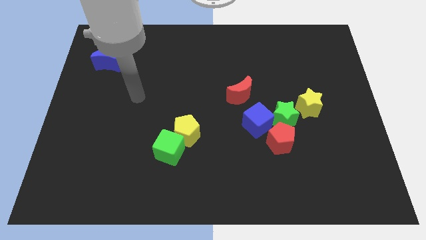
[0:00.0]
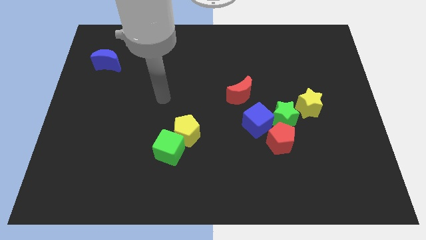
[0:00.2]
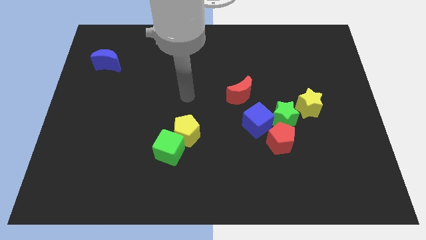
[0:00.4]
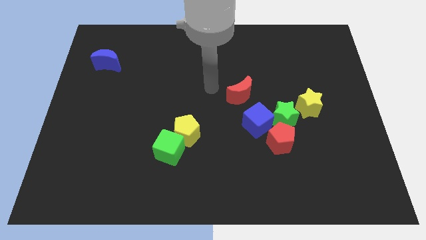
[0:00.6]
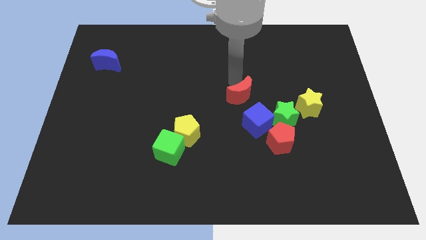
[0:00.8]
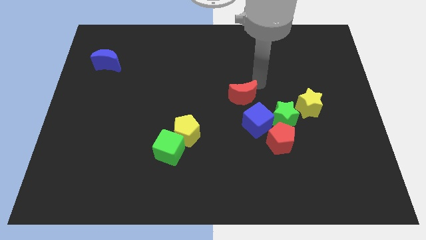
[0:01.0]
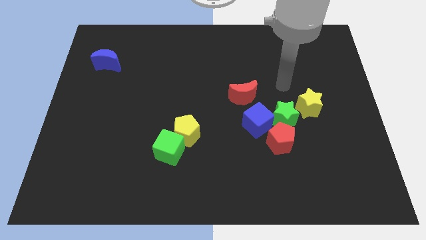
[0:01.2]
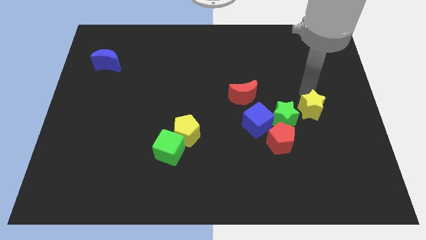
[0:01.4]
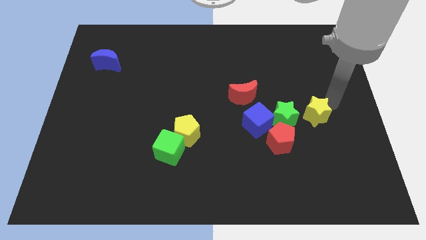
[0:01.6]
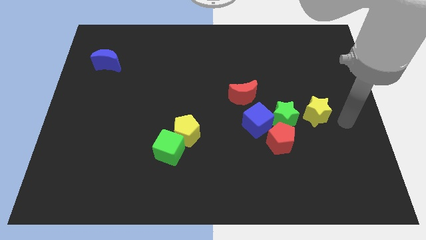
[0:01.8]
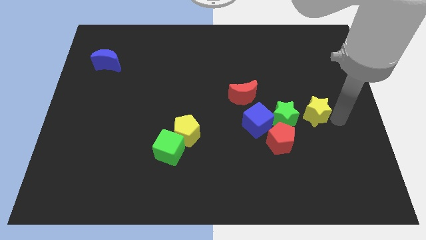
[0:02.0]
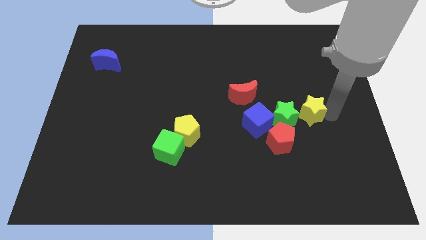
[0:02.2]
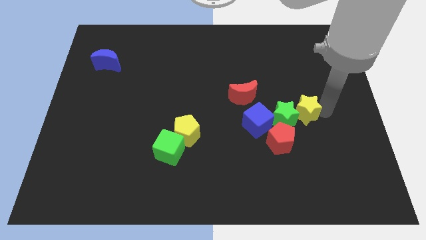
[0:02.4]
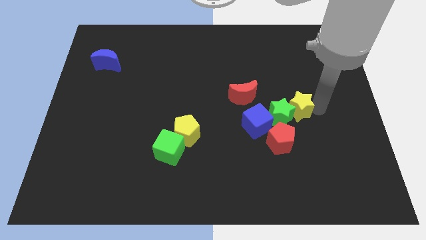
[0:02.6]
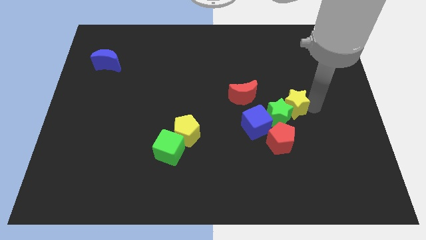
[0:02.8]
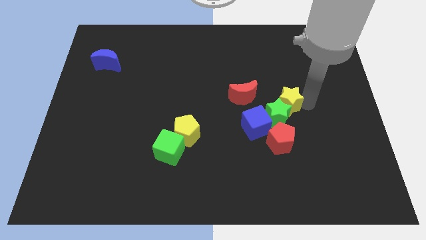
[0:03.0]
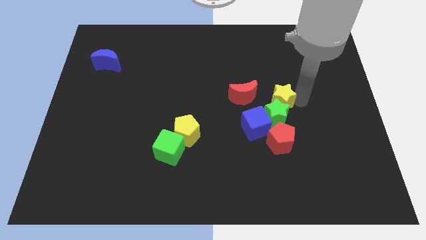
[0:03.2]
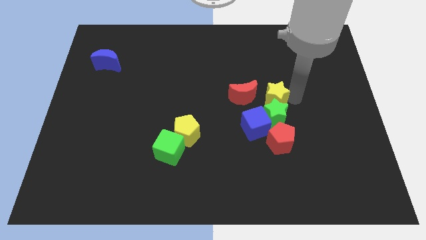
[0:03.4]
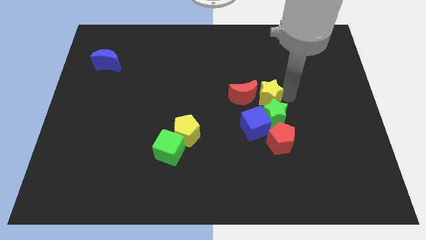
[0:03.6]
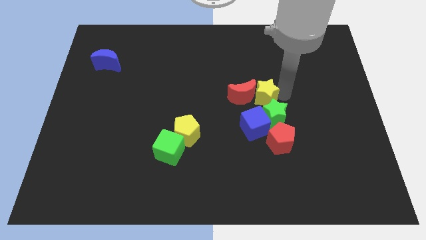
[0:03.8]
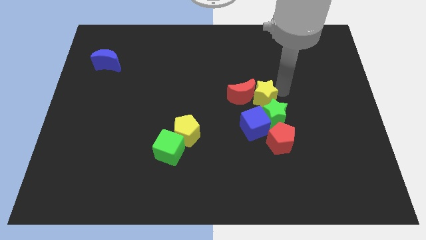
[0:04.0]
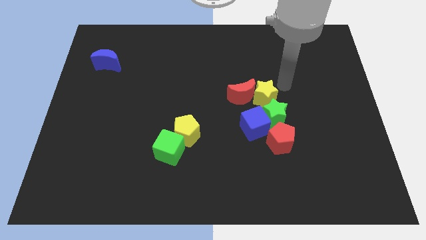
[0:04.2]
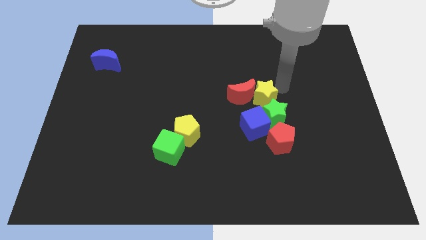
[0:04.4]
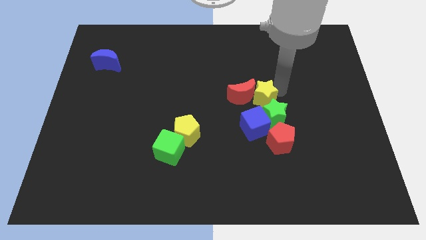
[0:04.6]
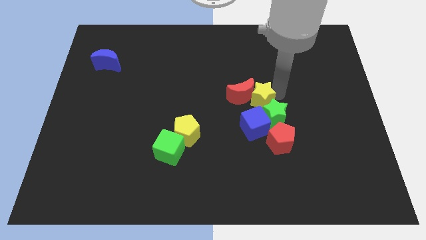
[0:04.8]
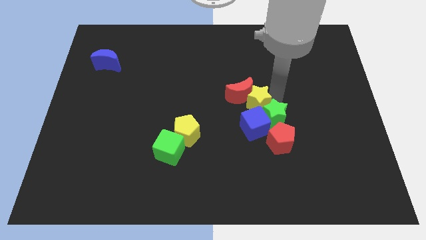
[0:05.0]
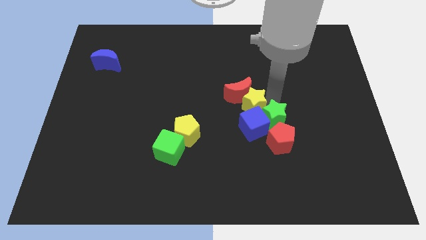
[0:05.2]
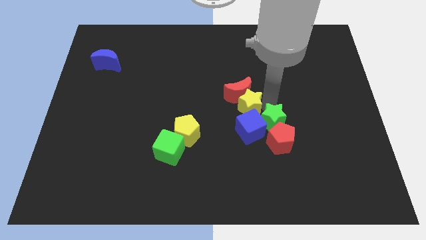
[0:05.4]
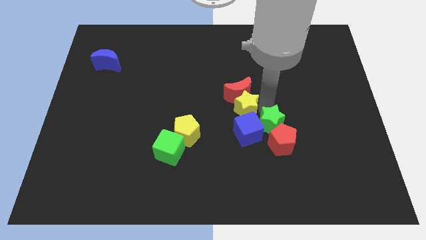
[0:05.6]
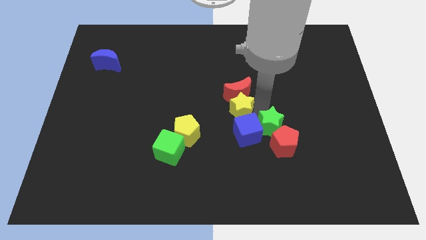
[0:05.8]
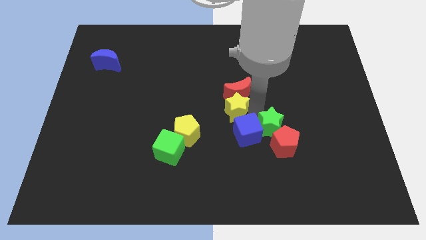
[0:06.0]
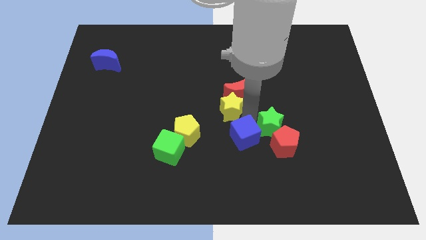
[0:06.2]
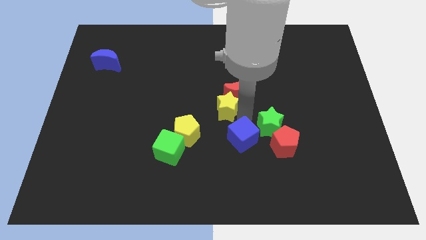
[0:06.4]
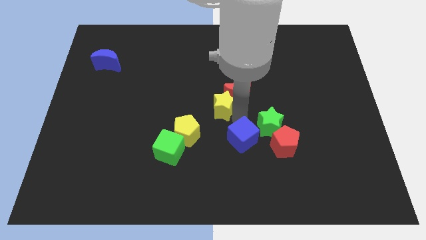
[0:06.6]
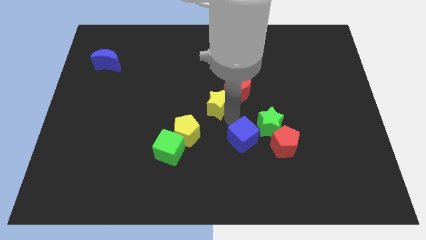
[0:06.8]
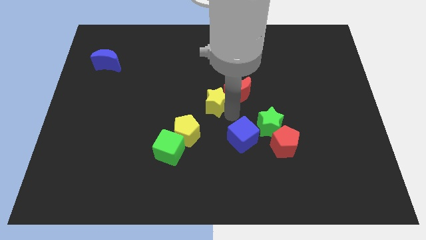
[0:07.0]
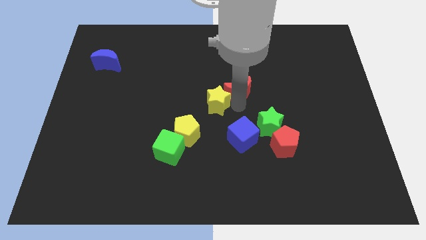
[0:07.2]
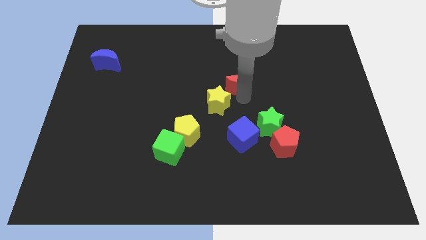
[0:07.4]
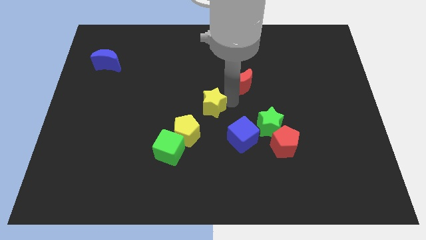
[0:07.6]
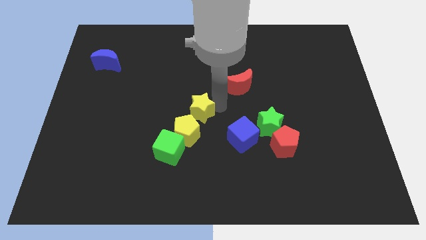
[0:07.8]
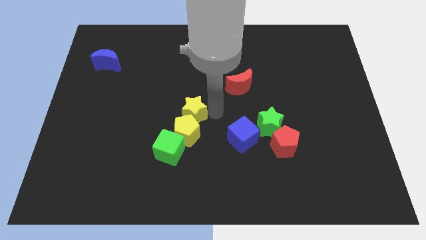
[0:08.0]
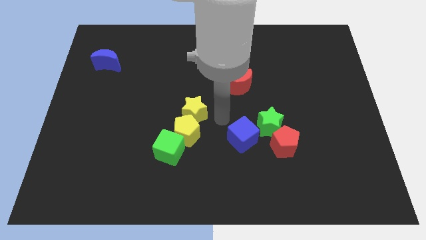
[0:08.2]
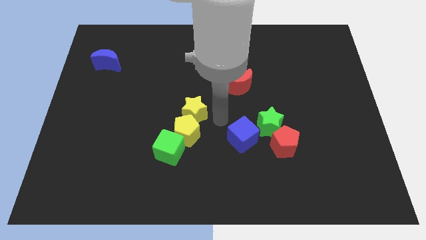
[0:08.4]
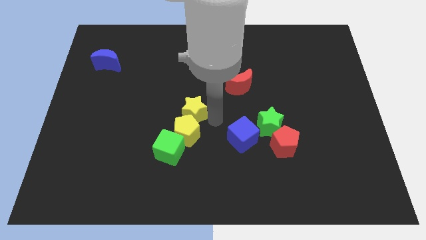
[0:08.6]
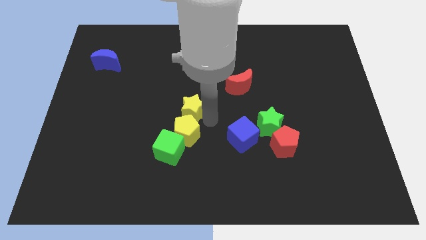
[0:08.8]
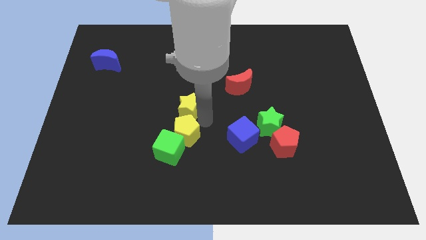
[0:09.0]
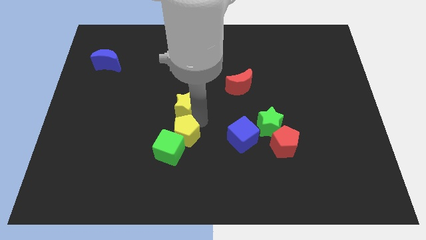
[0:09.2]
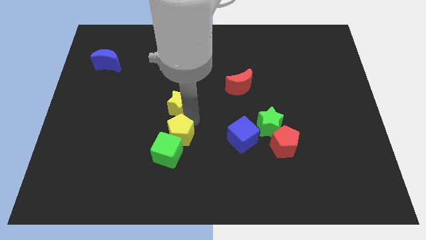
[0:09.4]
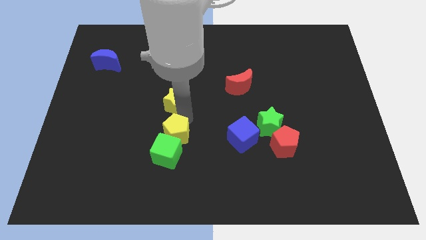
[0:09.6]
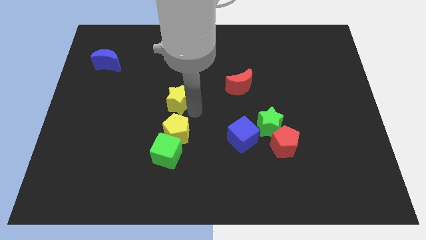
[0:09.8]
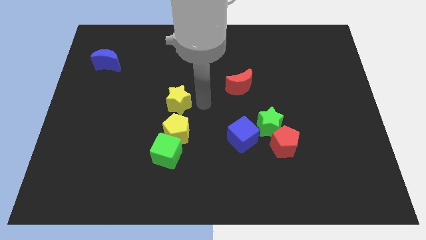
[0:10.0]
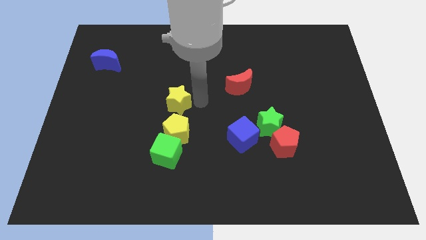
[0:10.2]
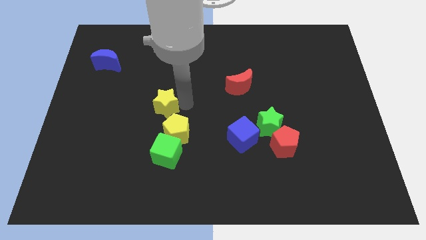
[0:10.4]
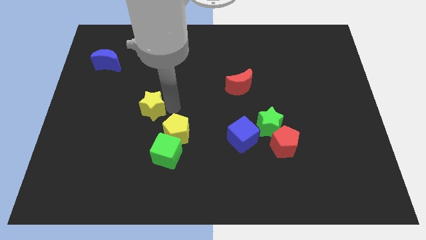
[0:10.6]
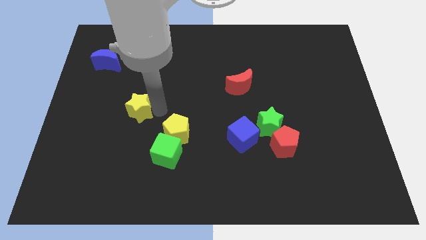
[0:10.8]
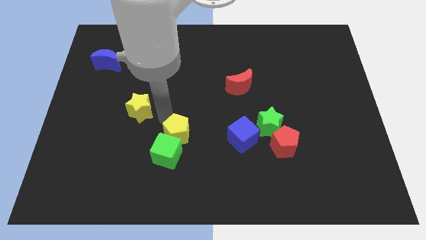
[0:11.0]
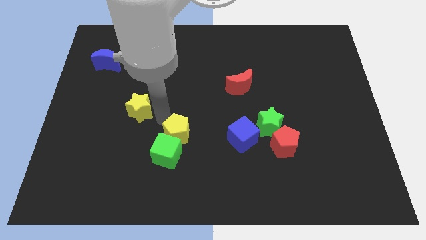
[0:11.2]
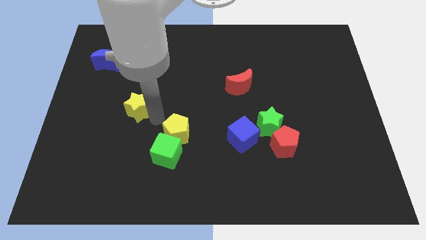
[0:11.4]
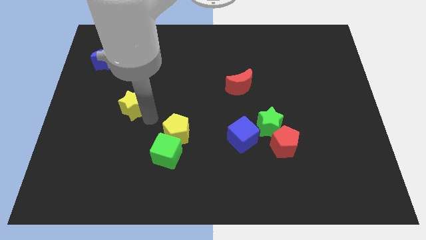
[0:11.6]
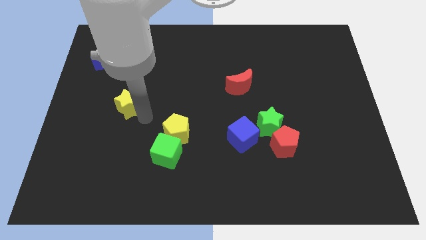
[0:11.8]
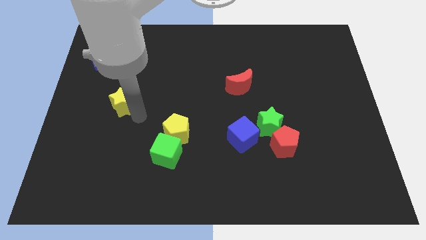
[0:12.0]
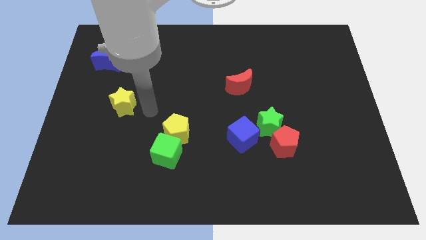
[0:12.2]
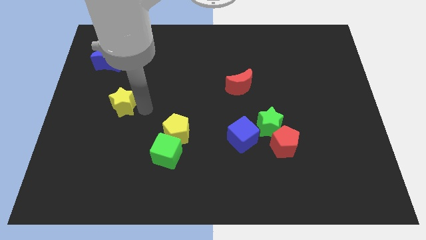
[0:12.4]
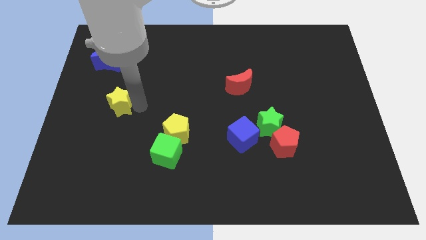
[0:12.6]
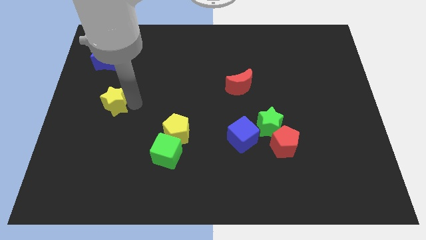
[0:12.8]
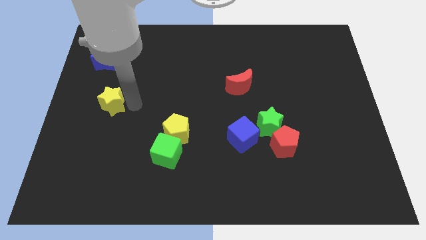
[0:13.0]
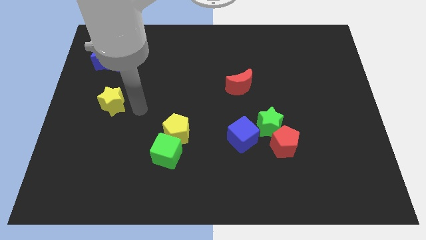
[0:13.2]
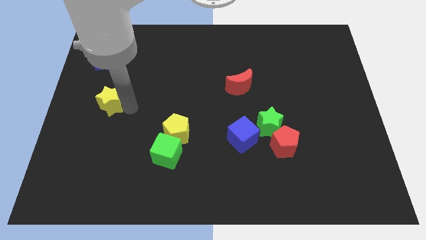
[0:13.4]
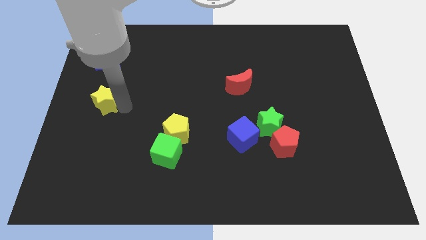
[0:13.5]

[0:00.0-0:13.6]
put the yellow star to the center left
